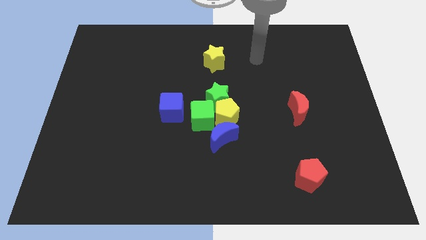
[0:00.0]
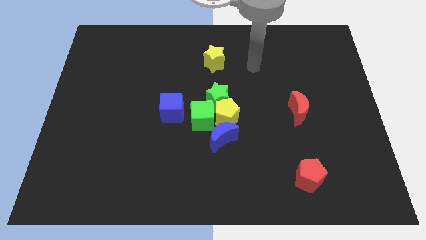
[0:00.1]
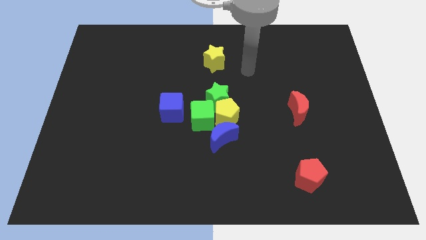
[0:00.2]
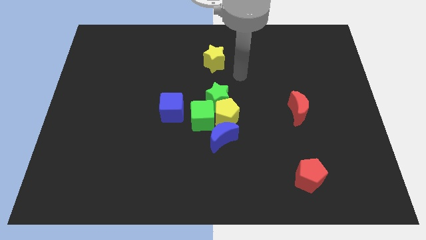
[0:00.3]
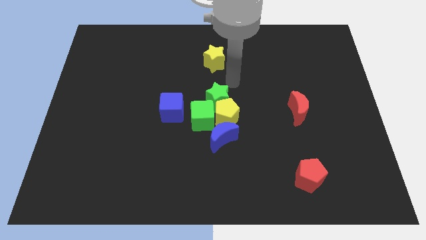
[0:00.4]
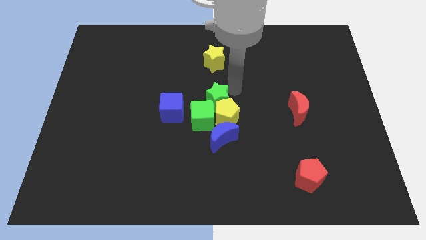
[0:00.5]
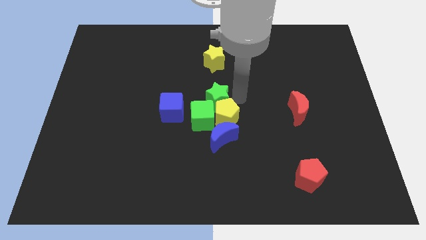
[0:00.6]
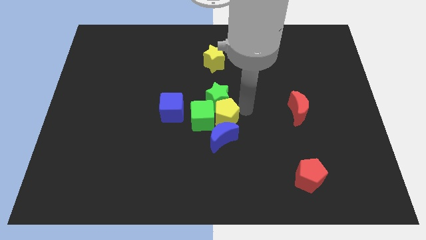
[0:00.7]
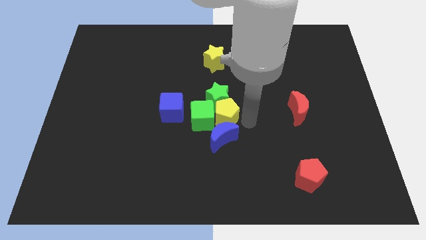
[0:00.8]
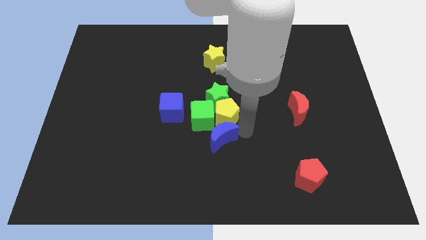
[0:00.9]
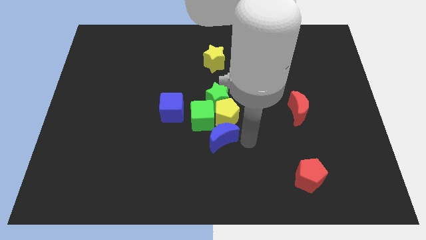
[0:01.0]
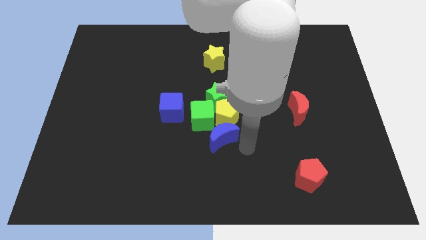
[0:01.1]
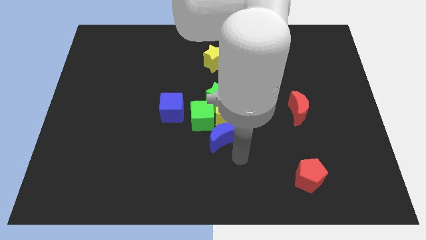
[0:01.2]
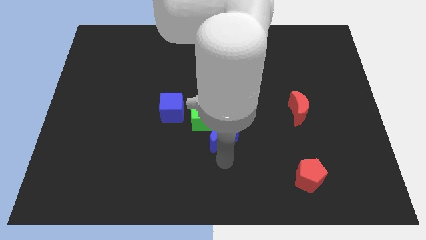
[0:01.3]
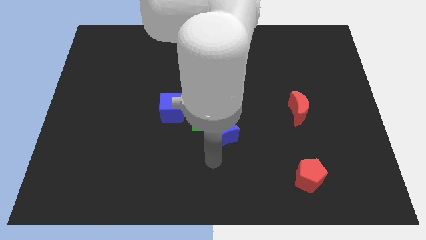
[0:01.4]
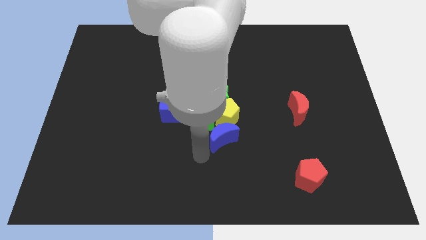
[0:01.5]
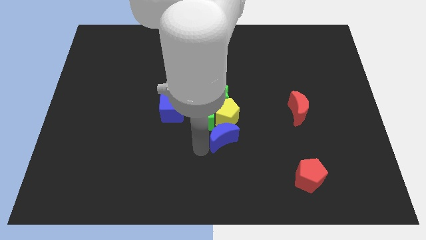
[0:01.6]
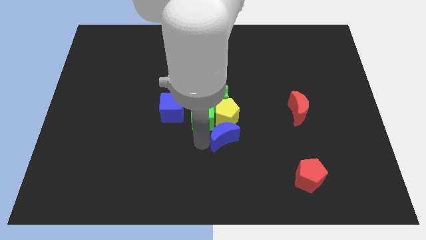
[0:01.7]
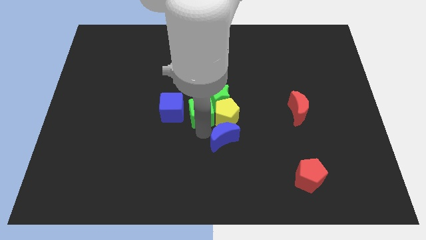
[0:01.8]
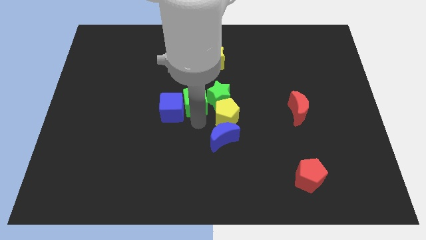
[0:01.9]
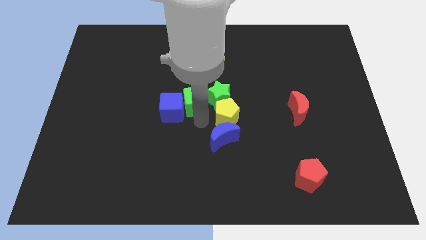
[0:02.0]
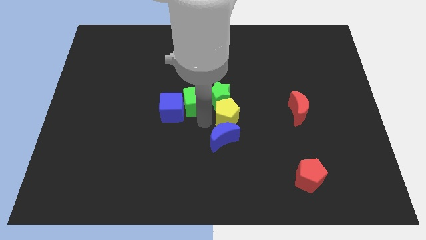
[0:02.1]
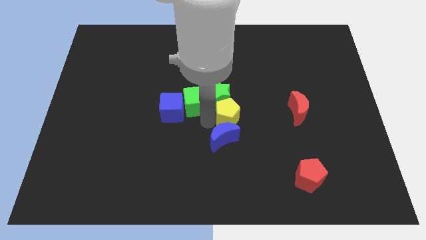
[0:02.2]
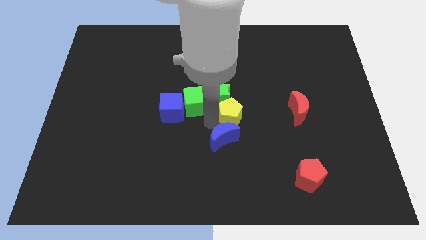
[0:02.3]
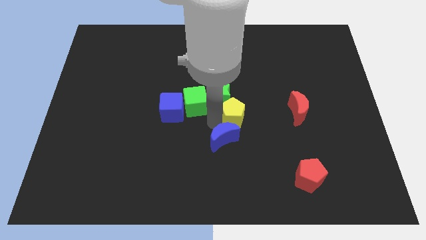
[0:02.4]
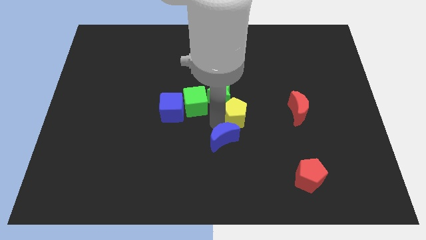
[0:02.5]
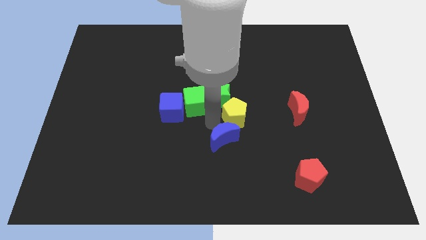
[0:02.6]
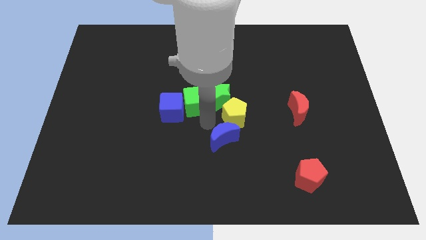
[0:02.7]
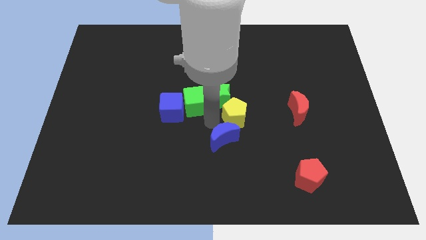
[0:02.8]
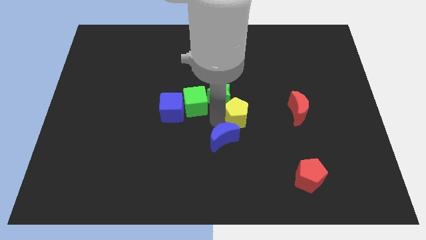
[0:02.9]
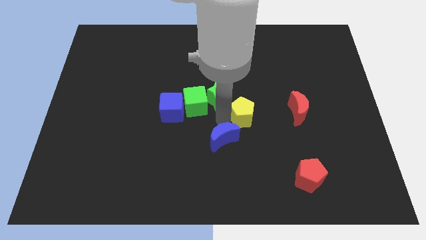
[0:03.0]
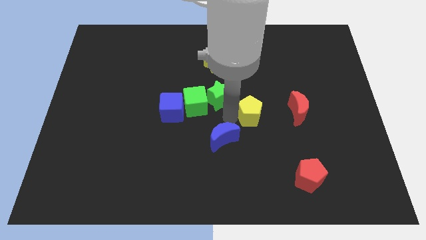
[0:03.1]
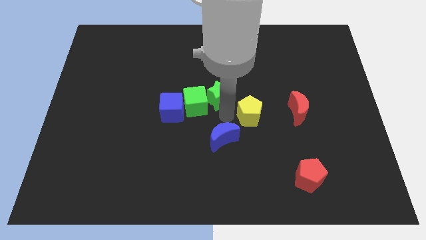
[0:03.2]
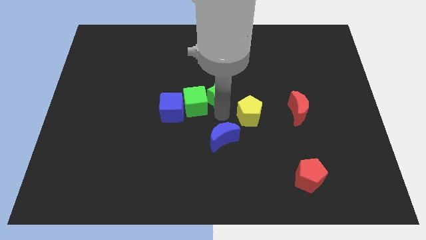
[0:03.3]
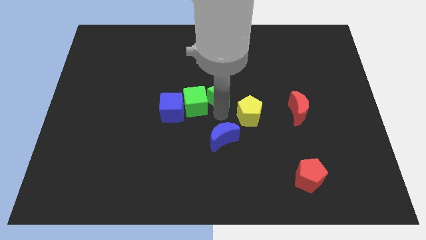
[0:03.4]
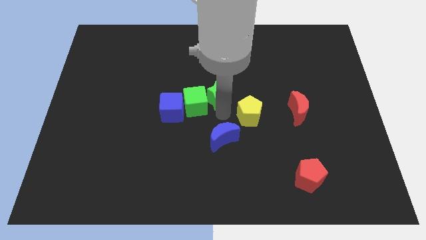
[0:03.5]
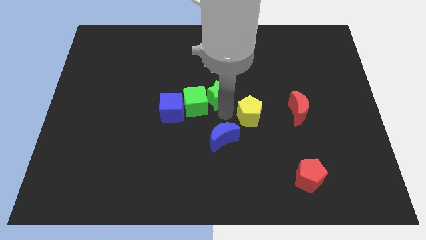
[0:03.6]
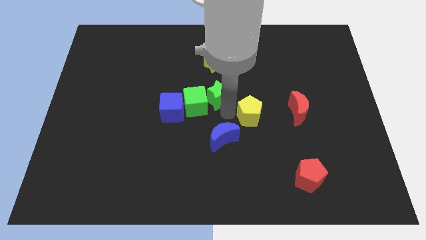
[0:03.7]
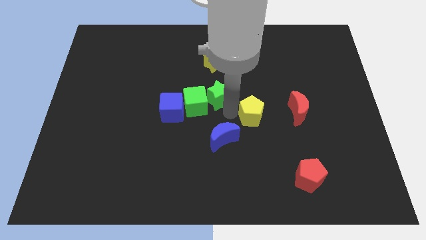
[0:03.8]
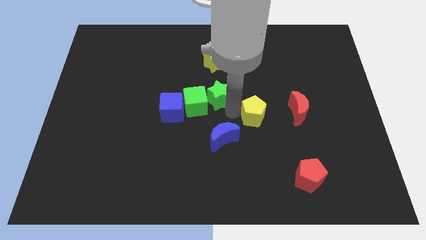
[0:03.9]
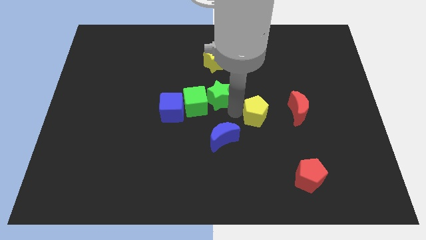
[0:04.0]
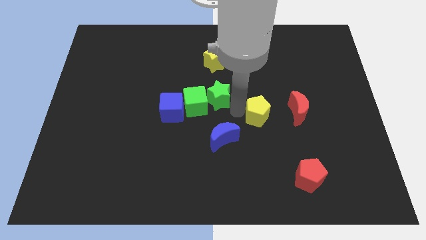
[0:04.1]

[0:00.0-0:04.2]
move the yellow pentagon away from the green star, green cube, and blue moon

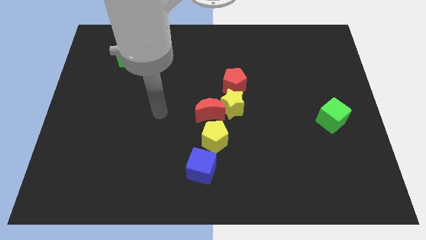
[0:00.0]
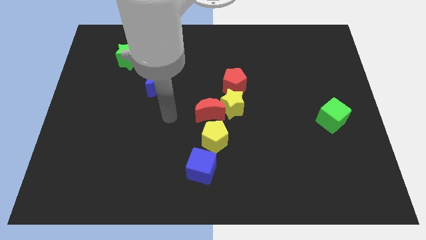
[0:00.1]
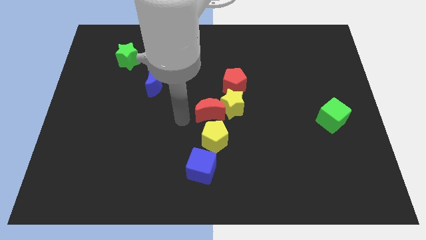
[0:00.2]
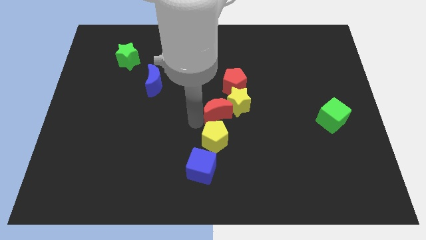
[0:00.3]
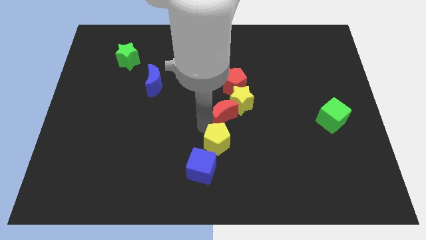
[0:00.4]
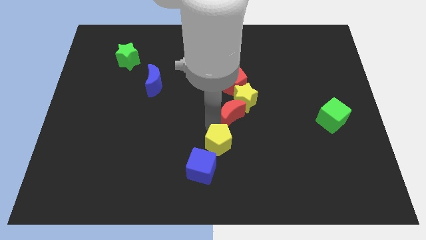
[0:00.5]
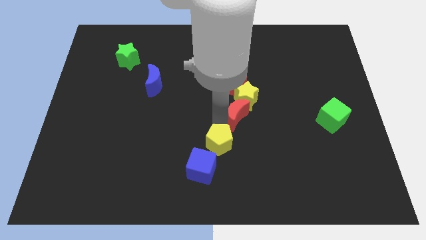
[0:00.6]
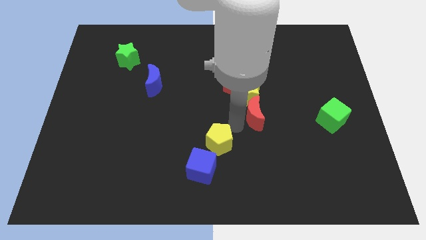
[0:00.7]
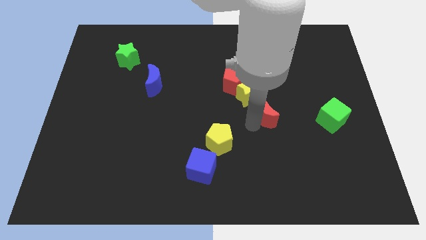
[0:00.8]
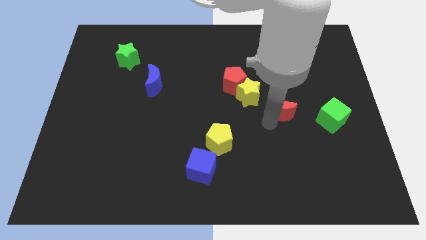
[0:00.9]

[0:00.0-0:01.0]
separate the red moon from the yellow star and yellow pentagon

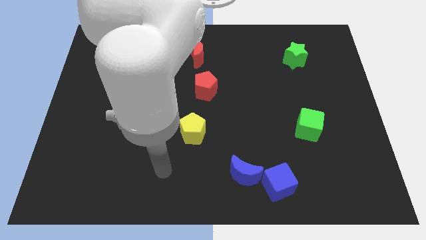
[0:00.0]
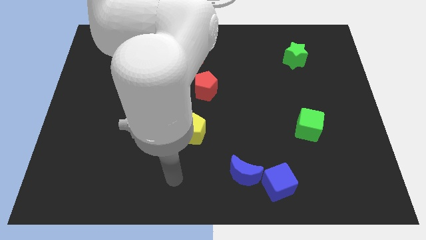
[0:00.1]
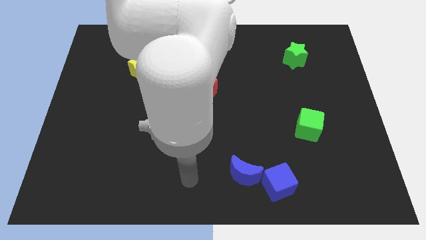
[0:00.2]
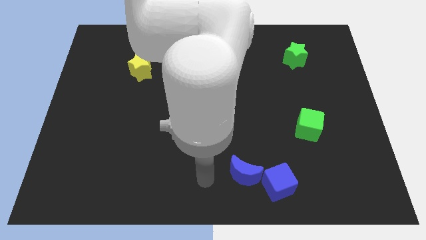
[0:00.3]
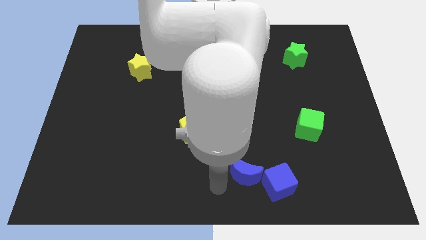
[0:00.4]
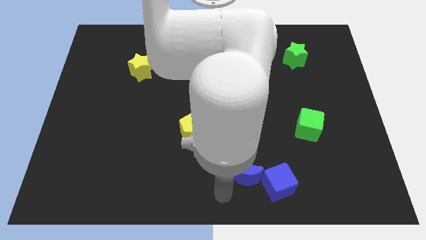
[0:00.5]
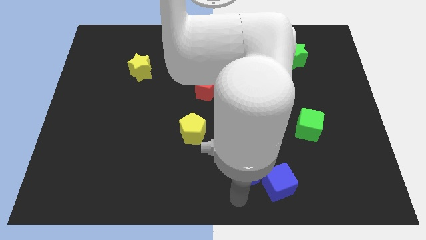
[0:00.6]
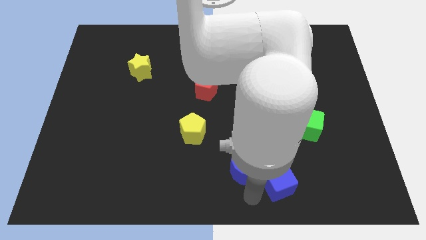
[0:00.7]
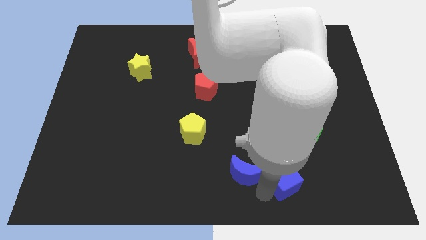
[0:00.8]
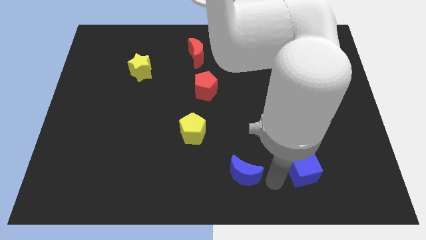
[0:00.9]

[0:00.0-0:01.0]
pull the blue moon apart from the blue cube

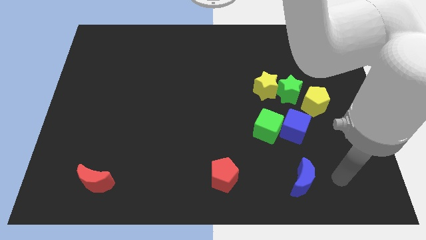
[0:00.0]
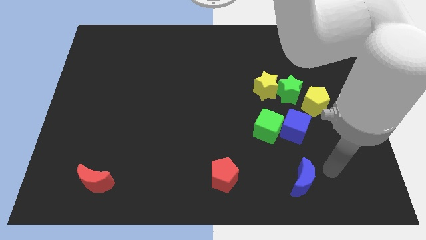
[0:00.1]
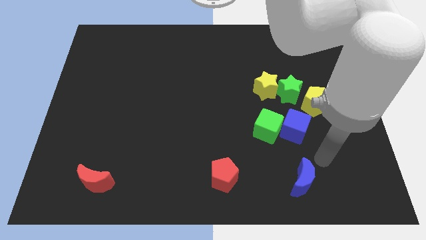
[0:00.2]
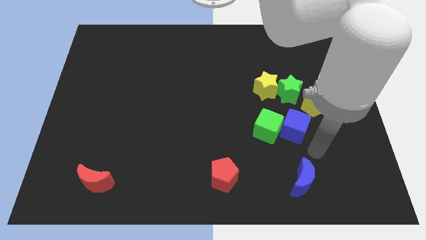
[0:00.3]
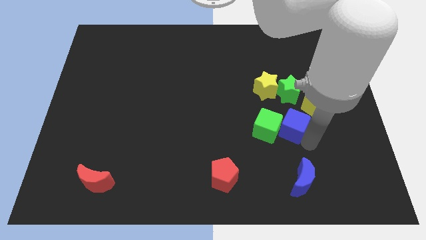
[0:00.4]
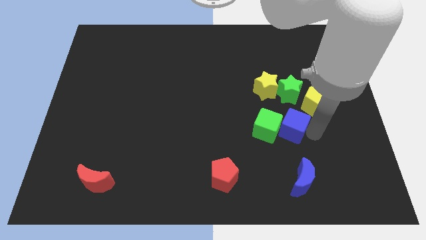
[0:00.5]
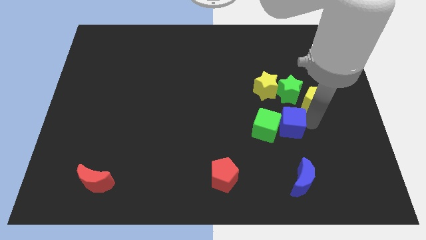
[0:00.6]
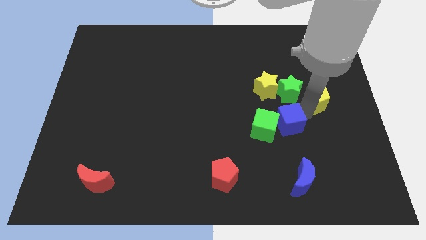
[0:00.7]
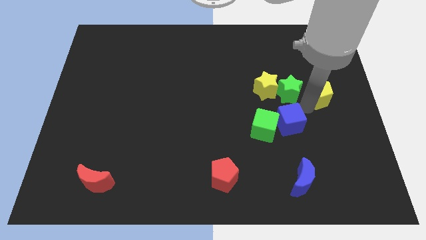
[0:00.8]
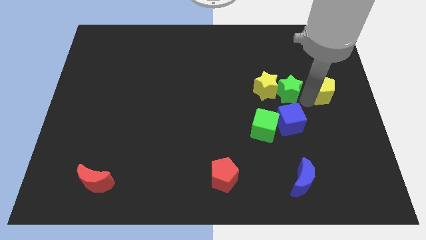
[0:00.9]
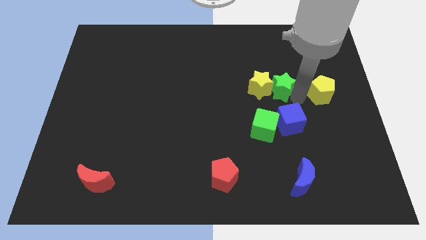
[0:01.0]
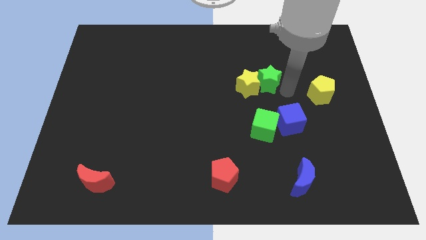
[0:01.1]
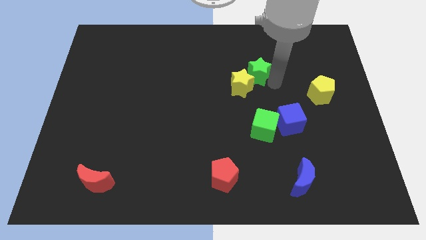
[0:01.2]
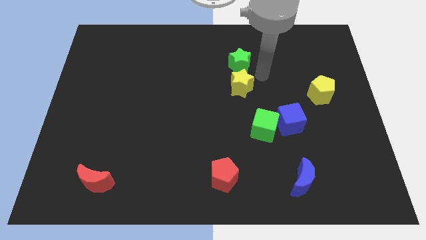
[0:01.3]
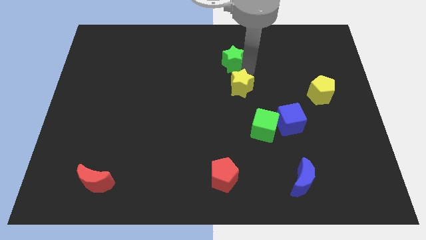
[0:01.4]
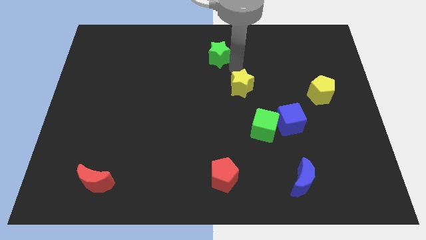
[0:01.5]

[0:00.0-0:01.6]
pull the yellow star apart from the green star

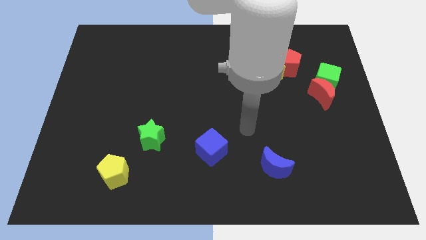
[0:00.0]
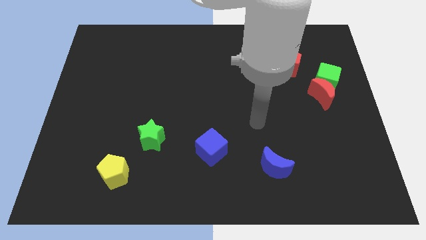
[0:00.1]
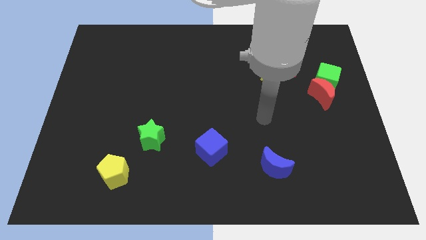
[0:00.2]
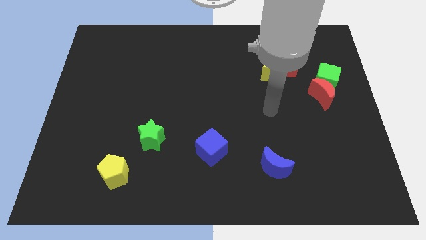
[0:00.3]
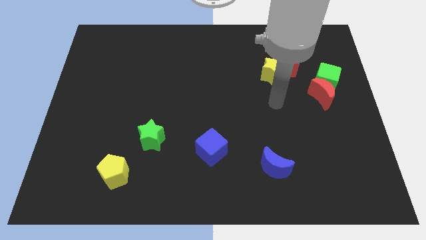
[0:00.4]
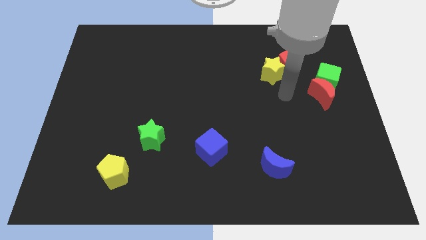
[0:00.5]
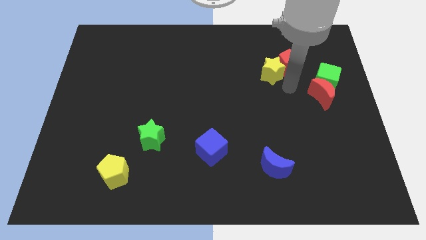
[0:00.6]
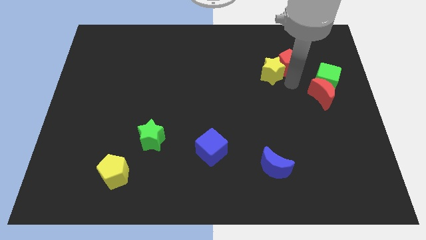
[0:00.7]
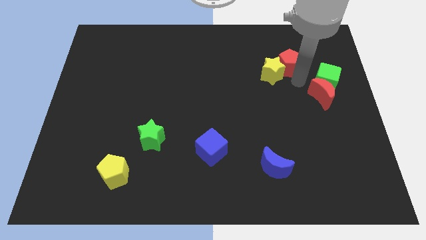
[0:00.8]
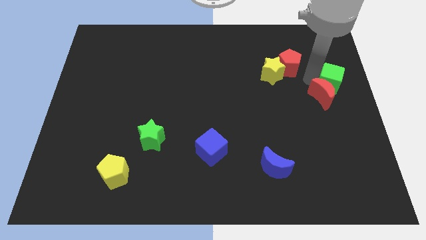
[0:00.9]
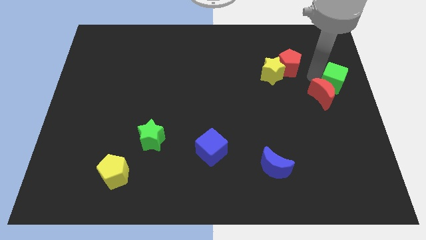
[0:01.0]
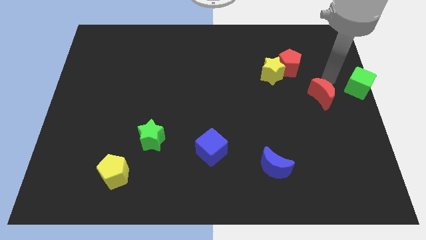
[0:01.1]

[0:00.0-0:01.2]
pull the red moon apart from the green cube

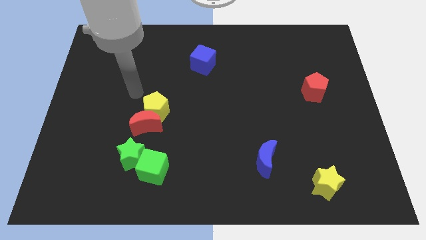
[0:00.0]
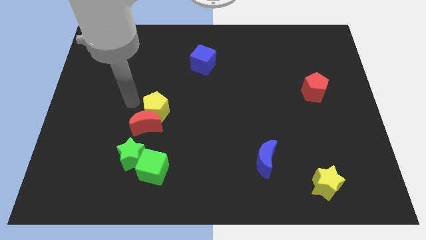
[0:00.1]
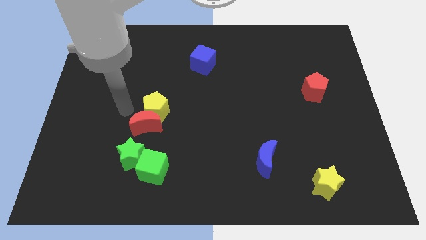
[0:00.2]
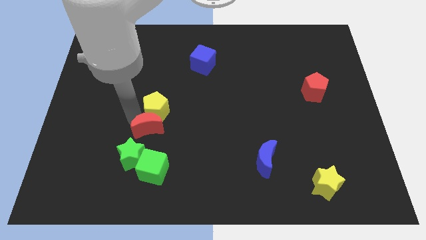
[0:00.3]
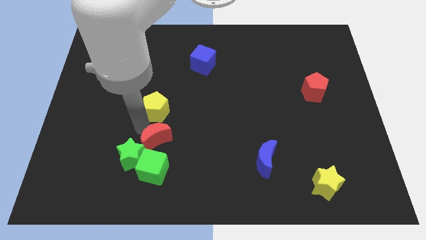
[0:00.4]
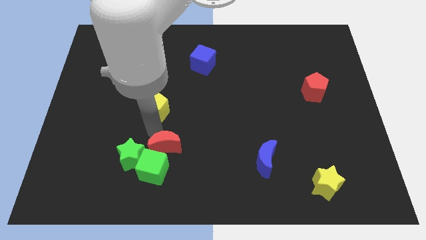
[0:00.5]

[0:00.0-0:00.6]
separate the yellow pentagon from the red moon
